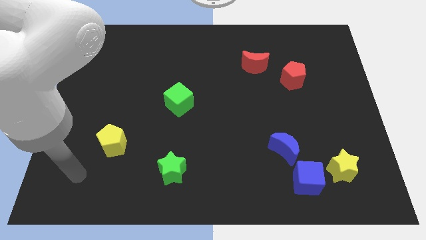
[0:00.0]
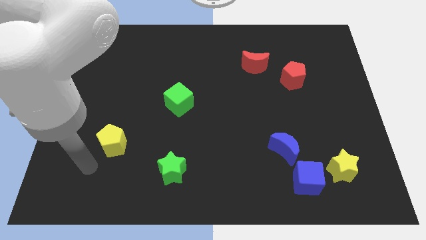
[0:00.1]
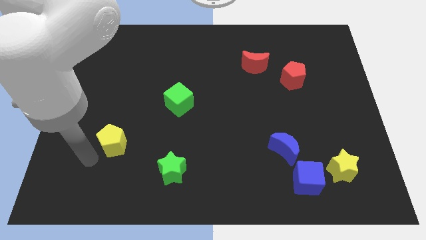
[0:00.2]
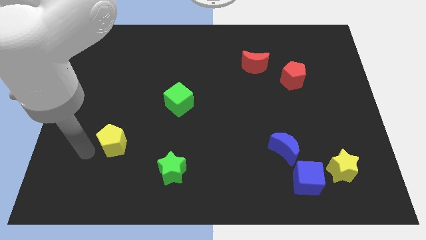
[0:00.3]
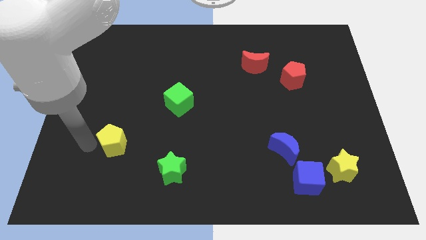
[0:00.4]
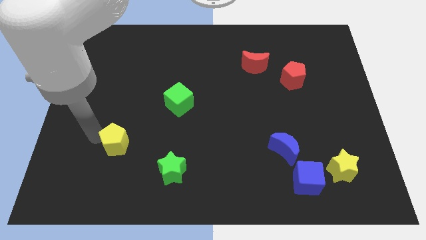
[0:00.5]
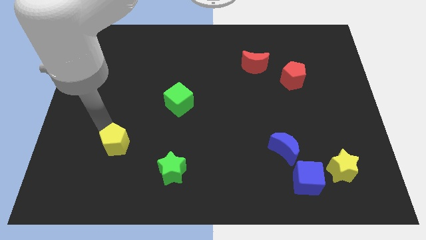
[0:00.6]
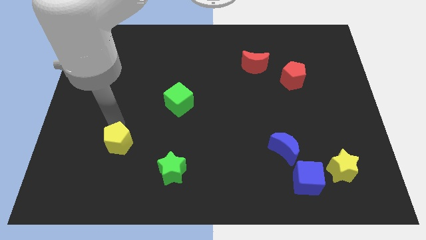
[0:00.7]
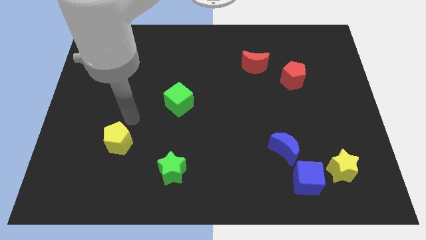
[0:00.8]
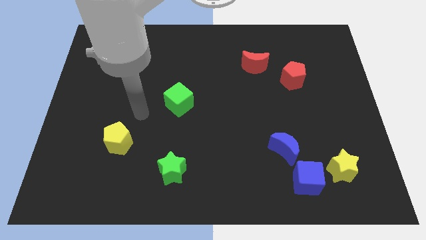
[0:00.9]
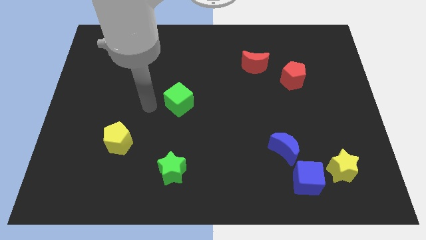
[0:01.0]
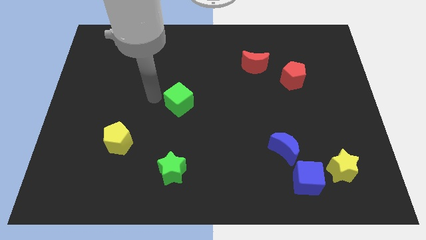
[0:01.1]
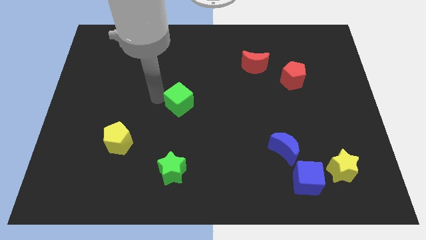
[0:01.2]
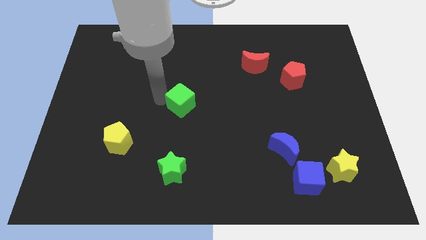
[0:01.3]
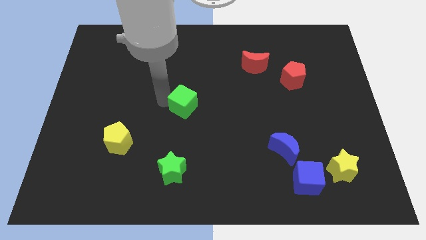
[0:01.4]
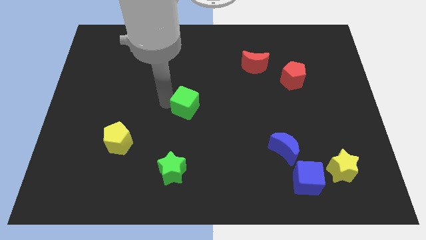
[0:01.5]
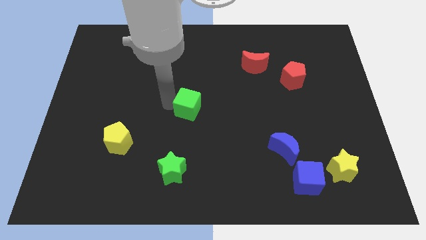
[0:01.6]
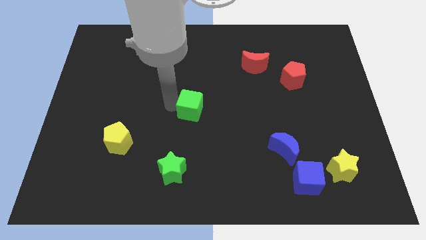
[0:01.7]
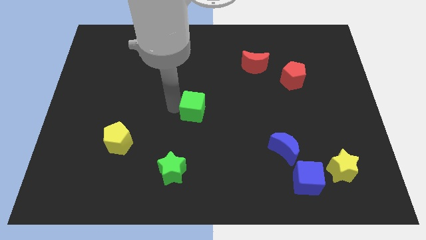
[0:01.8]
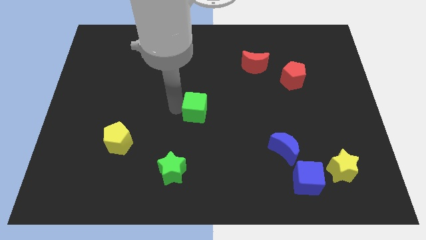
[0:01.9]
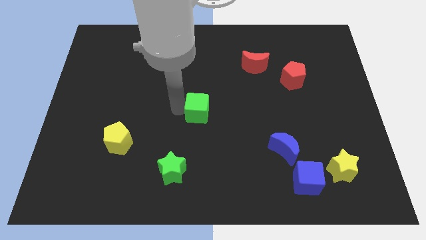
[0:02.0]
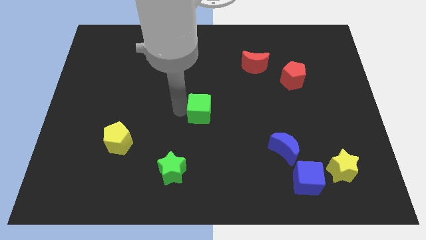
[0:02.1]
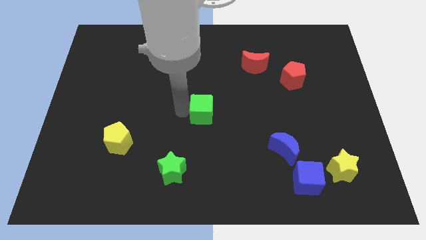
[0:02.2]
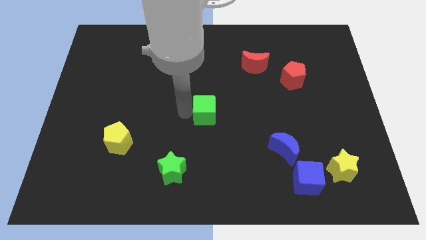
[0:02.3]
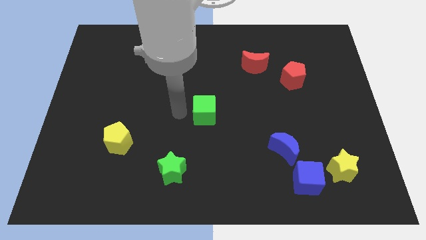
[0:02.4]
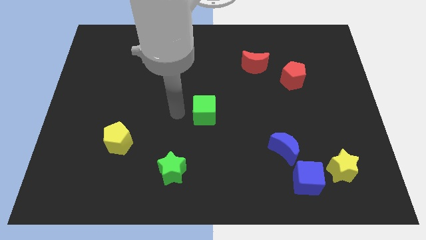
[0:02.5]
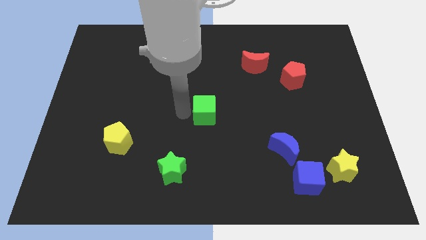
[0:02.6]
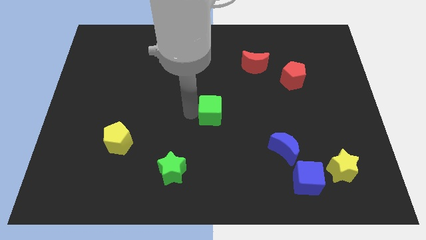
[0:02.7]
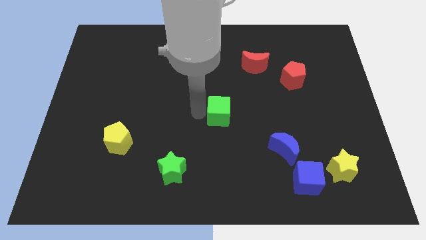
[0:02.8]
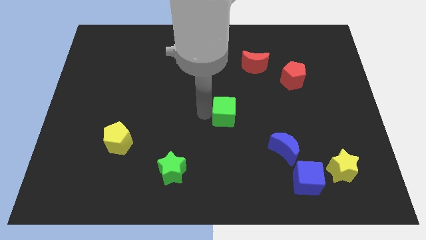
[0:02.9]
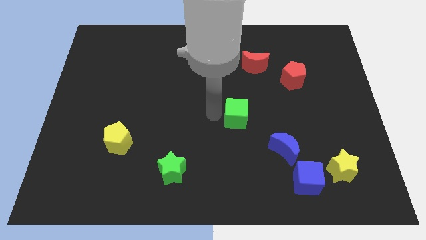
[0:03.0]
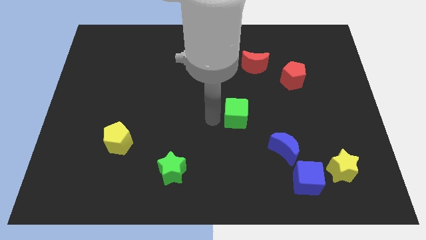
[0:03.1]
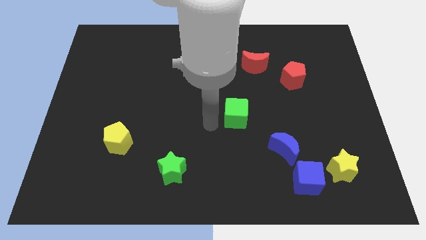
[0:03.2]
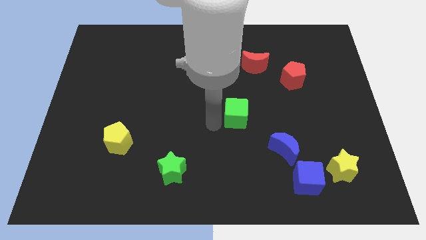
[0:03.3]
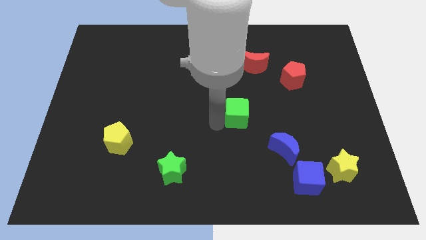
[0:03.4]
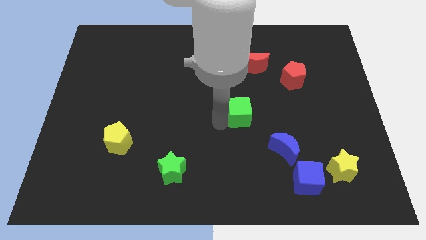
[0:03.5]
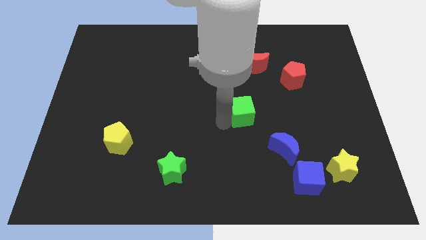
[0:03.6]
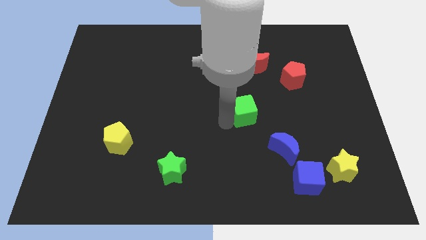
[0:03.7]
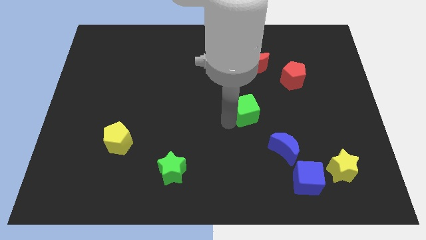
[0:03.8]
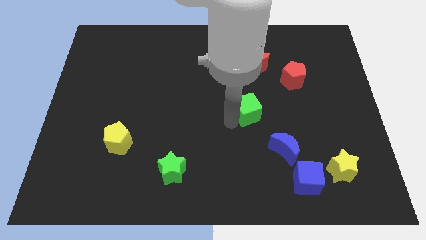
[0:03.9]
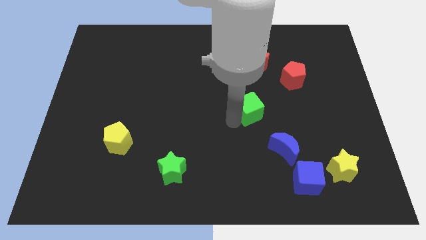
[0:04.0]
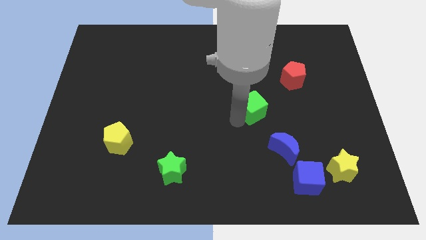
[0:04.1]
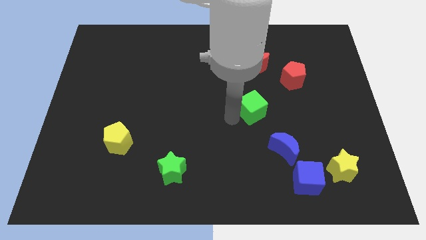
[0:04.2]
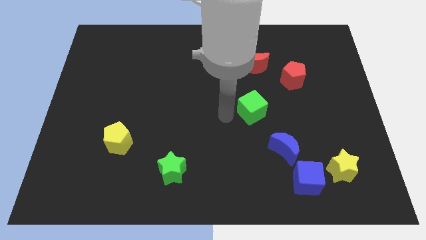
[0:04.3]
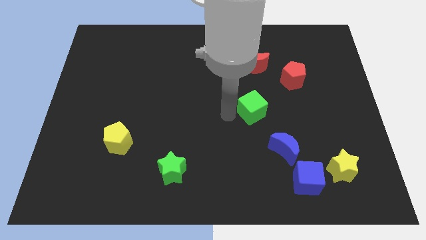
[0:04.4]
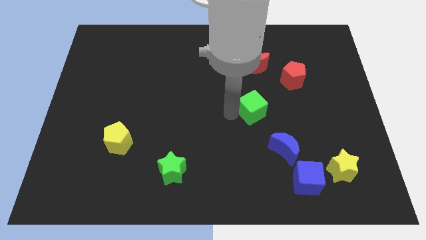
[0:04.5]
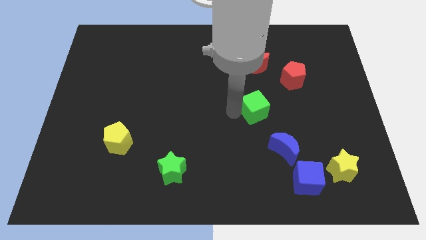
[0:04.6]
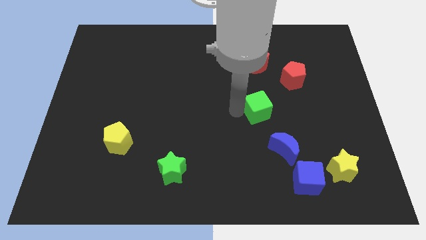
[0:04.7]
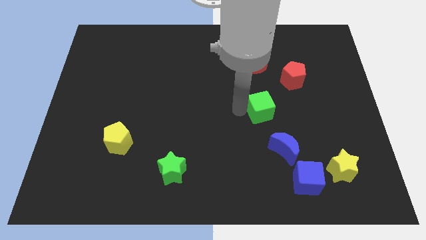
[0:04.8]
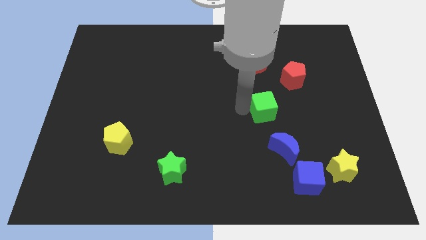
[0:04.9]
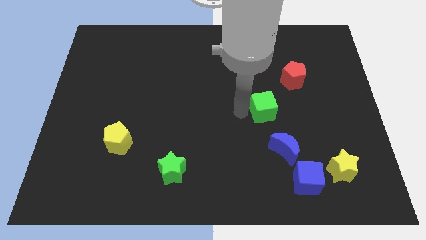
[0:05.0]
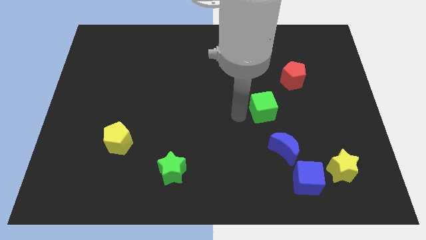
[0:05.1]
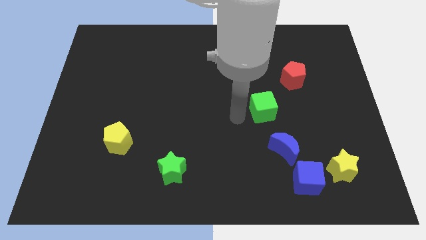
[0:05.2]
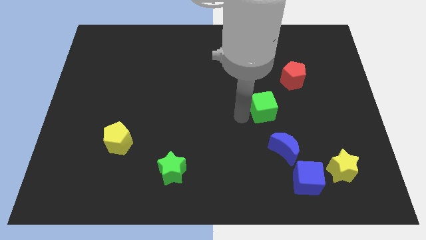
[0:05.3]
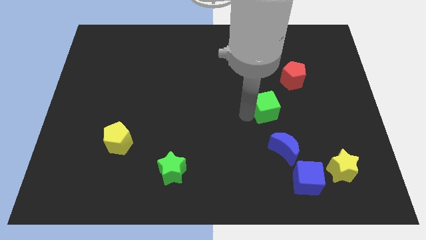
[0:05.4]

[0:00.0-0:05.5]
push the green cube right

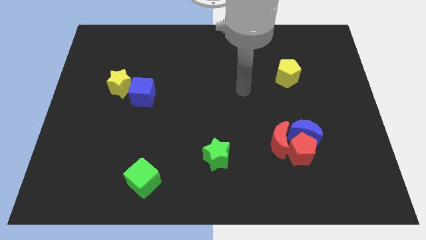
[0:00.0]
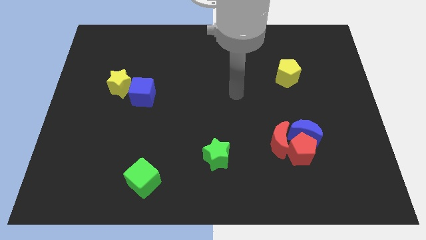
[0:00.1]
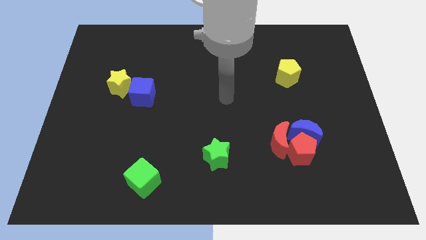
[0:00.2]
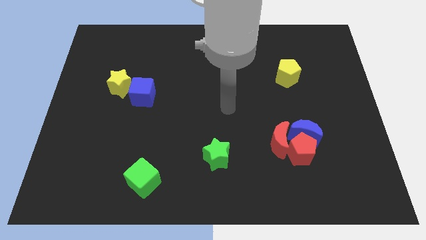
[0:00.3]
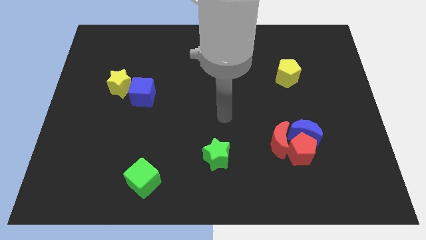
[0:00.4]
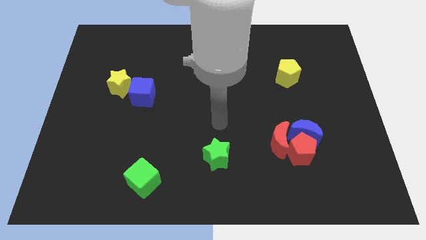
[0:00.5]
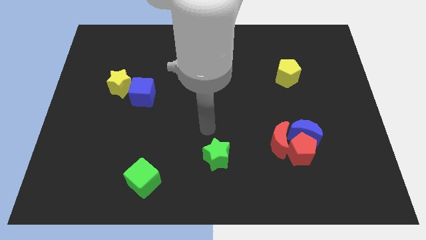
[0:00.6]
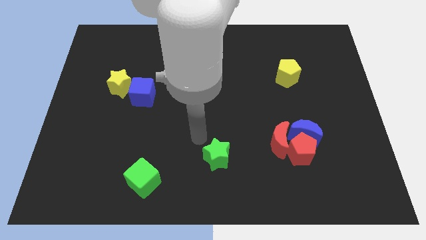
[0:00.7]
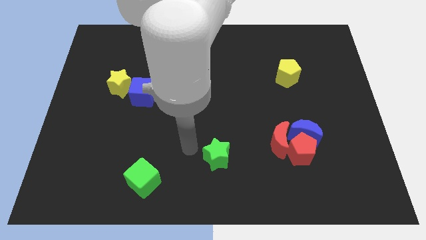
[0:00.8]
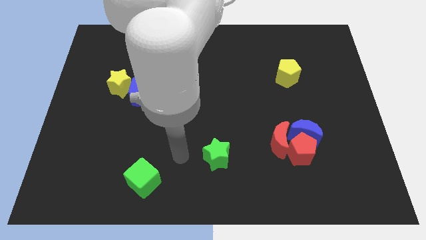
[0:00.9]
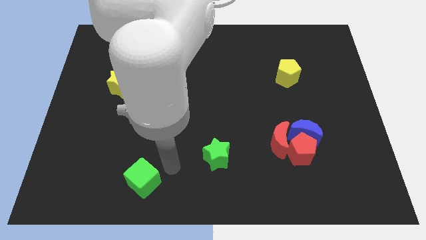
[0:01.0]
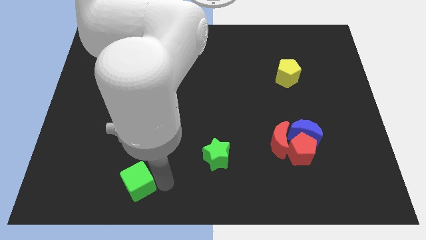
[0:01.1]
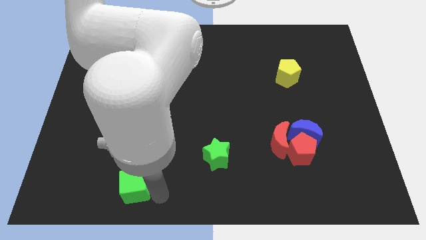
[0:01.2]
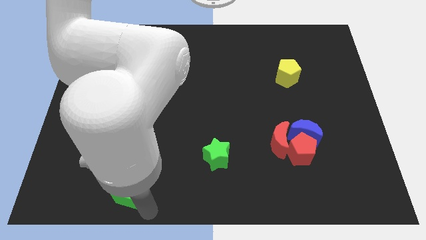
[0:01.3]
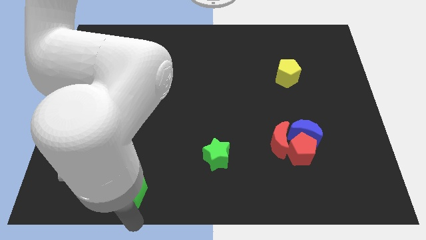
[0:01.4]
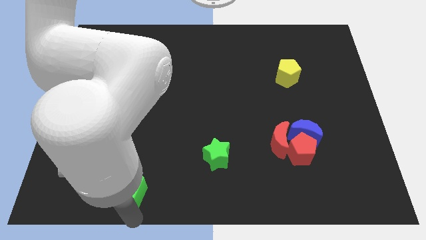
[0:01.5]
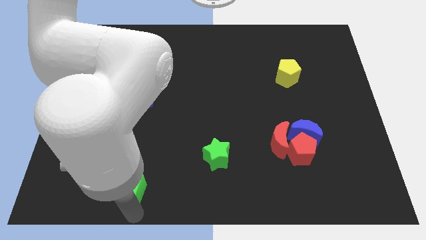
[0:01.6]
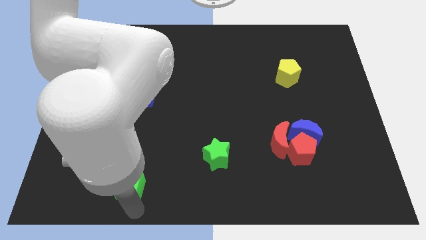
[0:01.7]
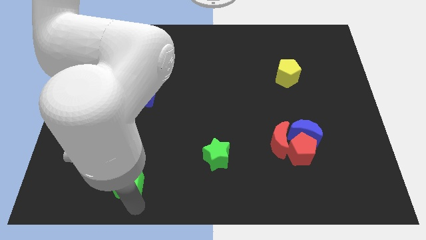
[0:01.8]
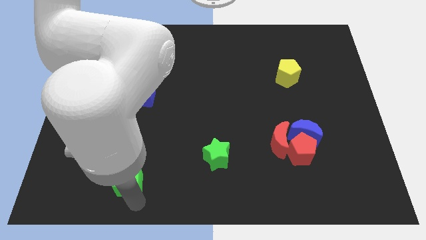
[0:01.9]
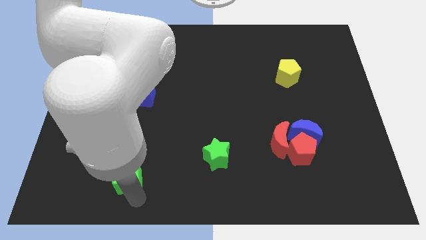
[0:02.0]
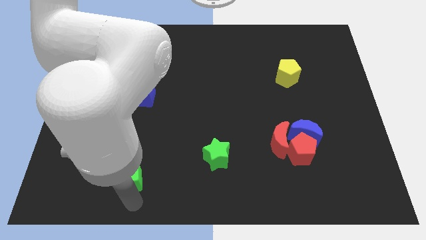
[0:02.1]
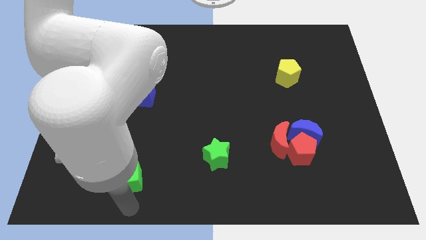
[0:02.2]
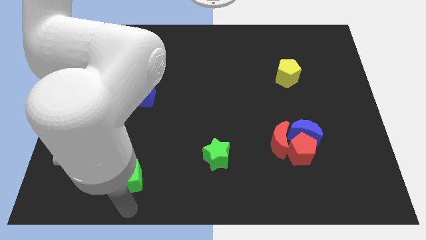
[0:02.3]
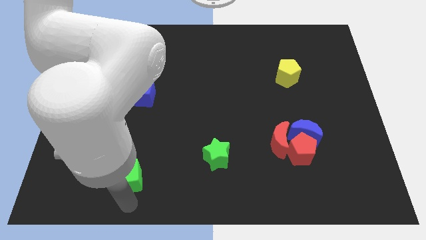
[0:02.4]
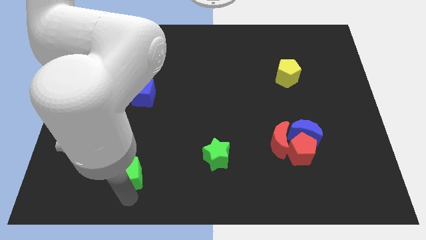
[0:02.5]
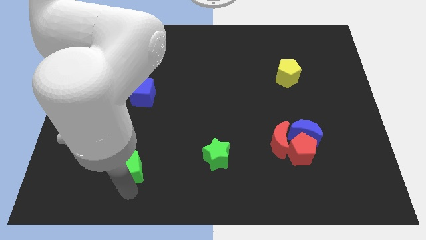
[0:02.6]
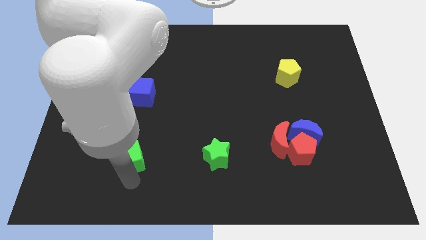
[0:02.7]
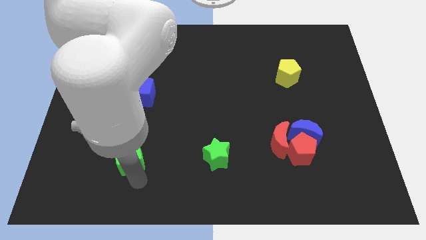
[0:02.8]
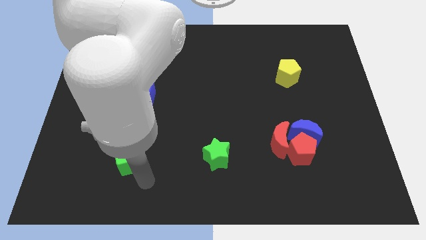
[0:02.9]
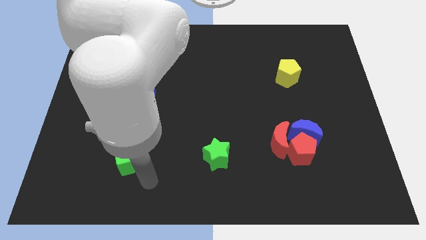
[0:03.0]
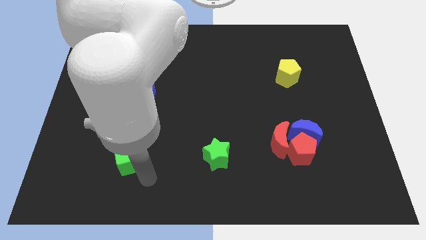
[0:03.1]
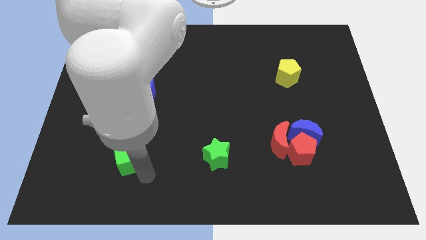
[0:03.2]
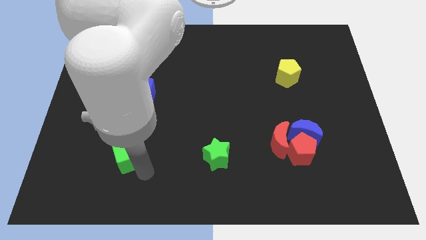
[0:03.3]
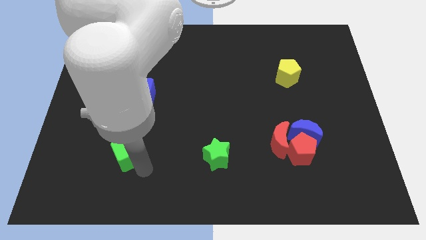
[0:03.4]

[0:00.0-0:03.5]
push the green cube diagonally upwards and to the left a little
